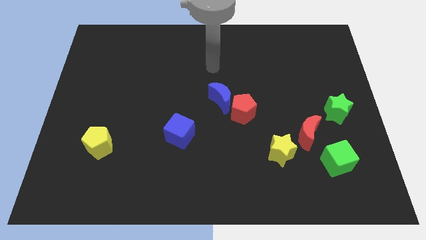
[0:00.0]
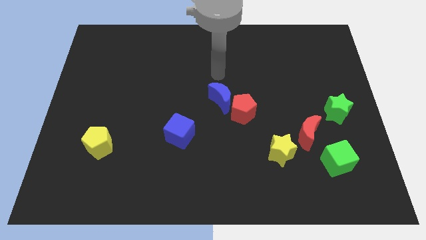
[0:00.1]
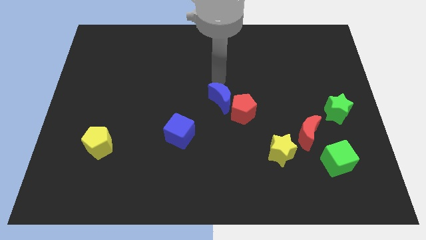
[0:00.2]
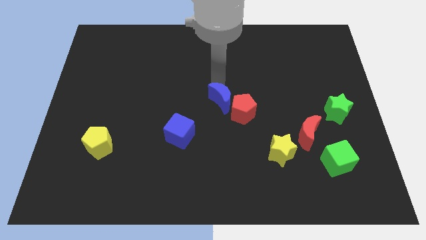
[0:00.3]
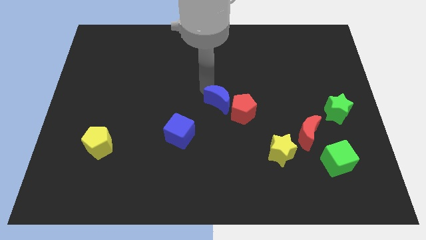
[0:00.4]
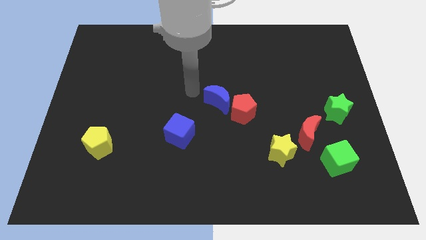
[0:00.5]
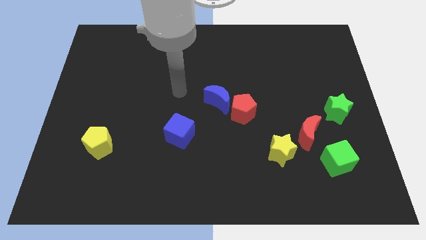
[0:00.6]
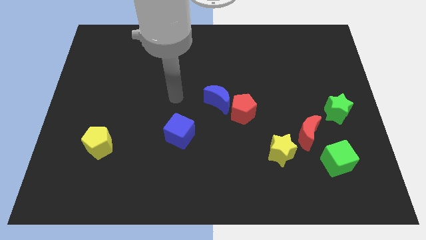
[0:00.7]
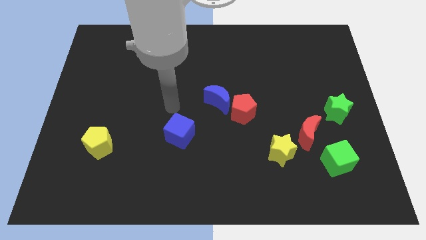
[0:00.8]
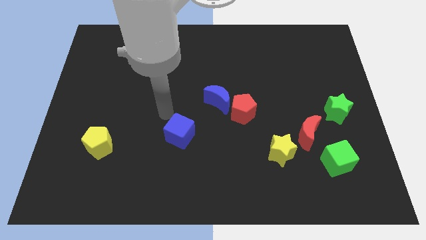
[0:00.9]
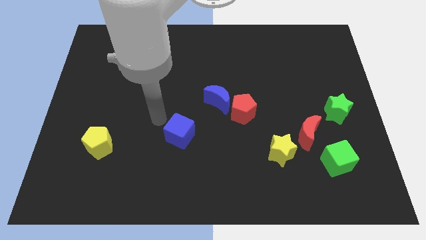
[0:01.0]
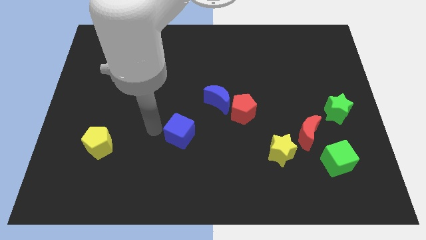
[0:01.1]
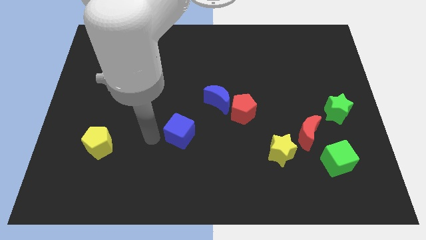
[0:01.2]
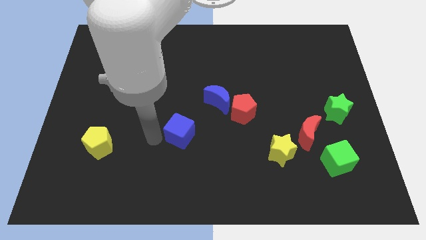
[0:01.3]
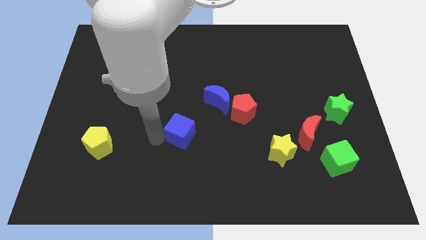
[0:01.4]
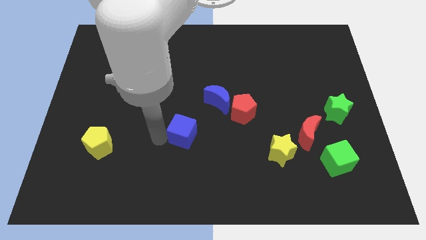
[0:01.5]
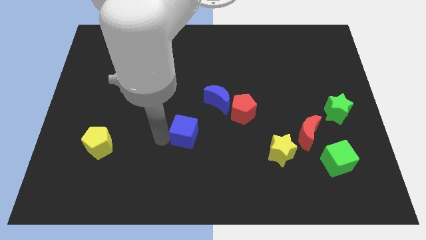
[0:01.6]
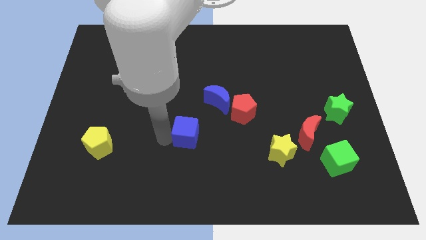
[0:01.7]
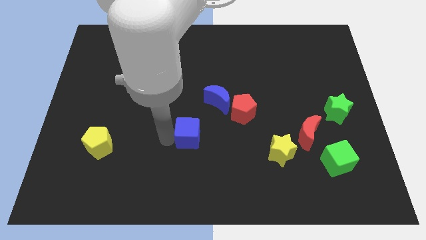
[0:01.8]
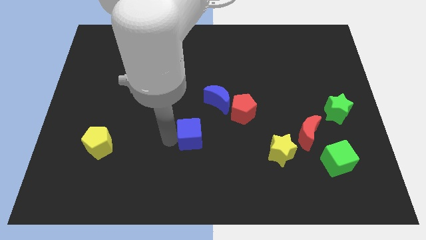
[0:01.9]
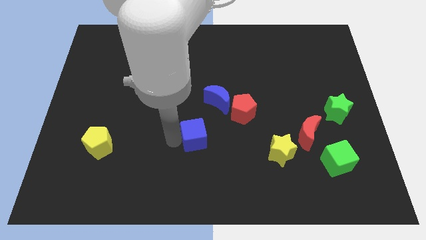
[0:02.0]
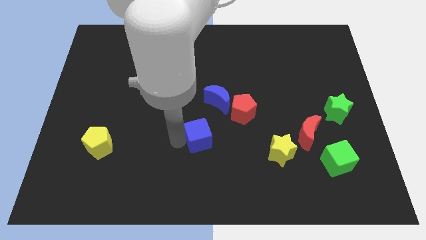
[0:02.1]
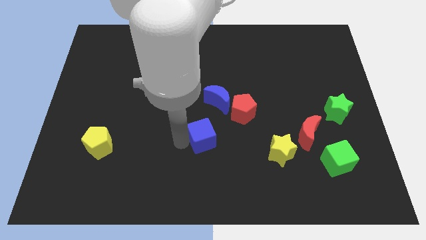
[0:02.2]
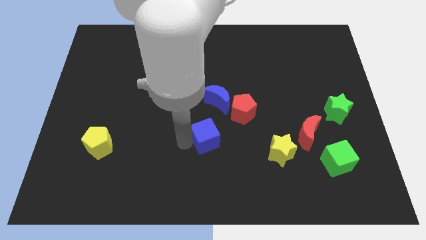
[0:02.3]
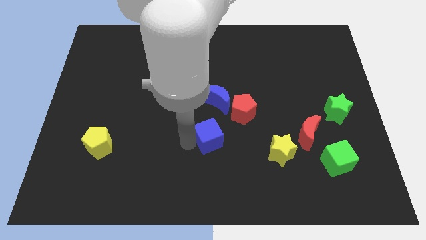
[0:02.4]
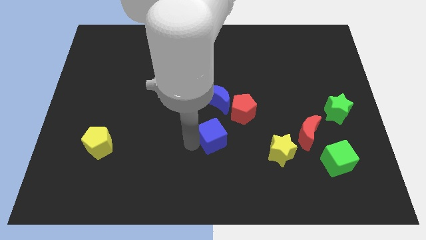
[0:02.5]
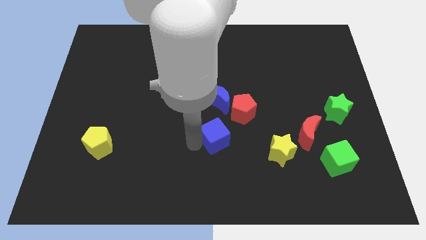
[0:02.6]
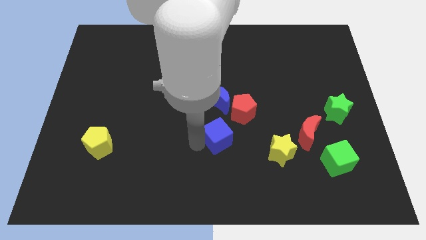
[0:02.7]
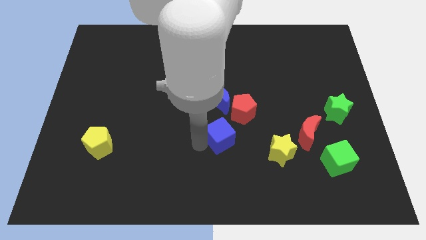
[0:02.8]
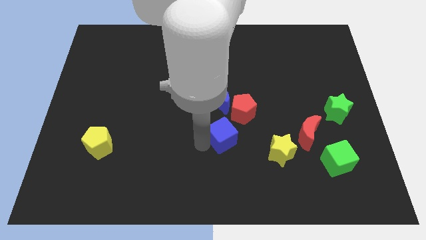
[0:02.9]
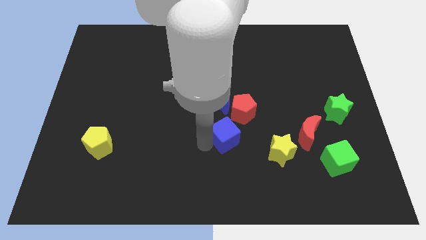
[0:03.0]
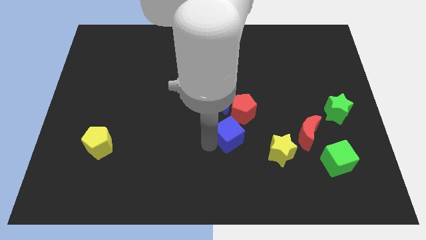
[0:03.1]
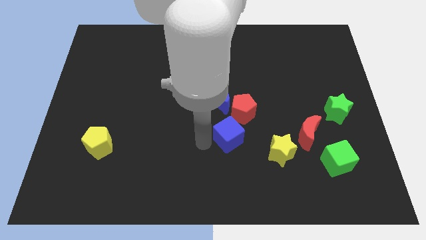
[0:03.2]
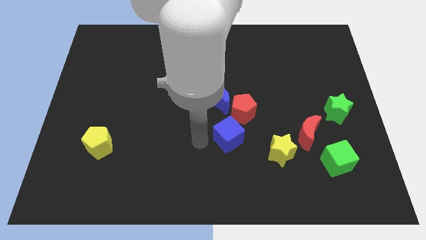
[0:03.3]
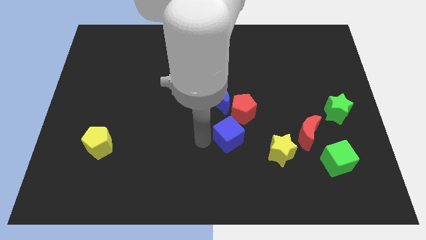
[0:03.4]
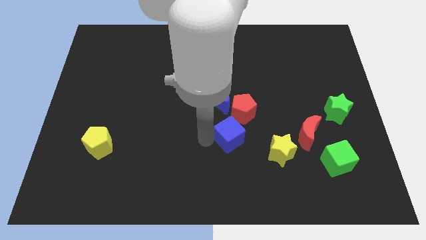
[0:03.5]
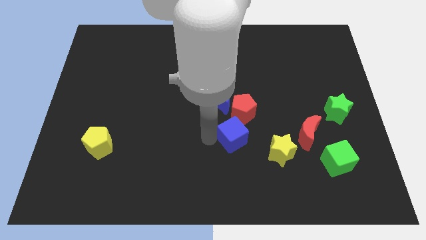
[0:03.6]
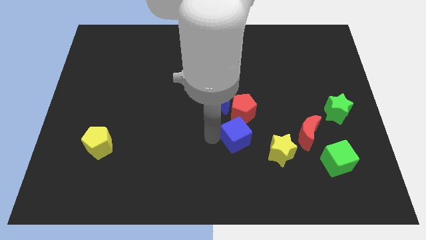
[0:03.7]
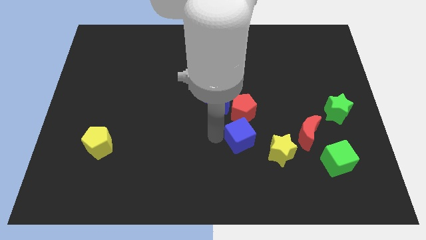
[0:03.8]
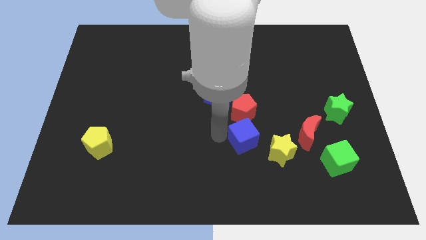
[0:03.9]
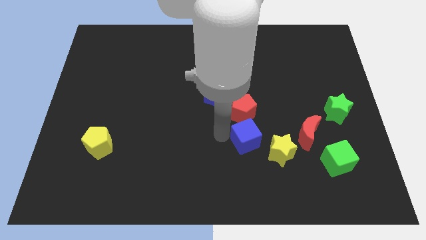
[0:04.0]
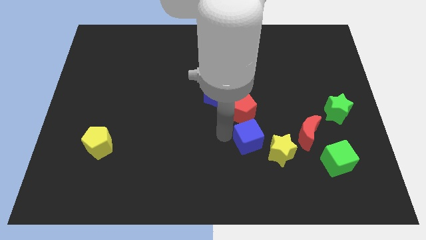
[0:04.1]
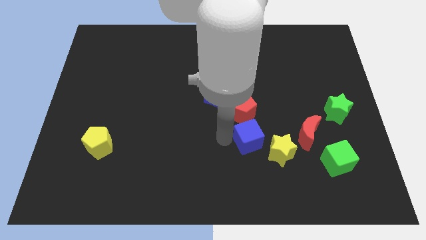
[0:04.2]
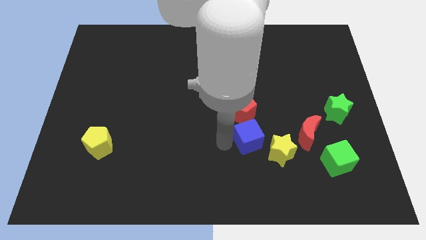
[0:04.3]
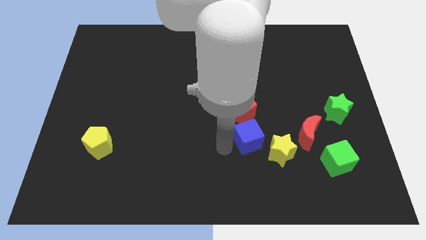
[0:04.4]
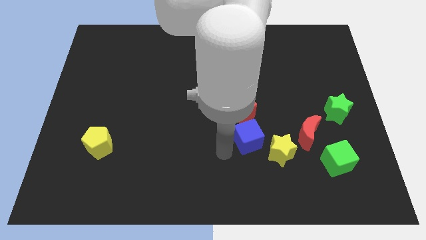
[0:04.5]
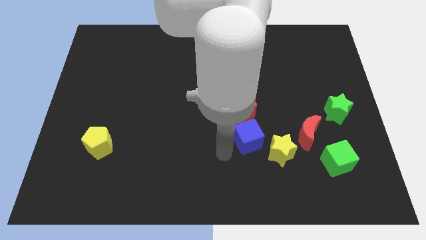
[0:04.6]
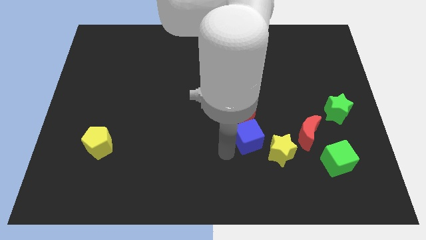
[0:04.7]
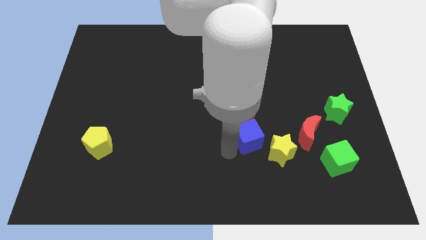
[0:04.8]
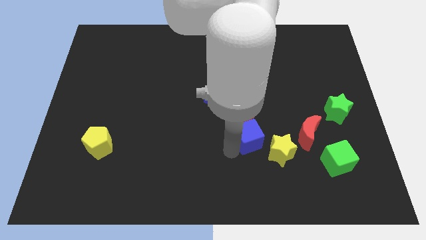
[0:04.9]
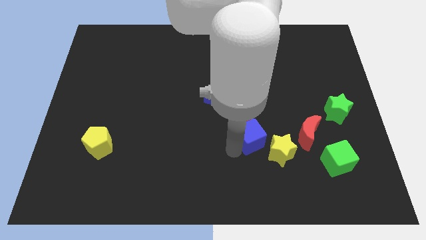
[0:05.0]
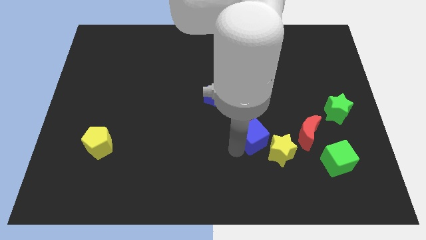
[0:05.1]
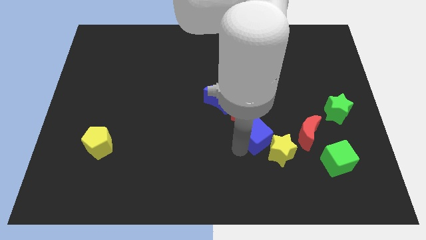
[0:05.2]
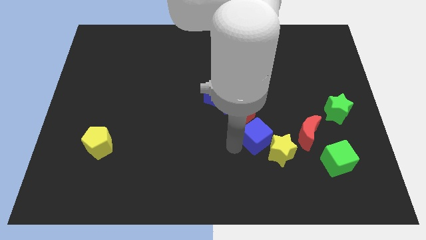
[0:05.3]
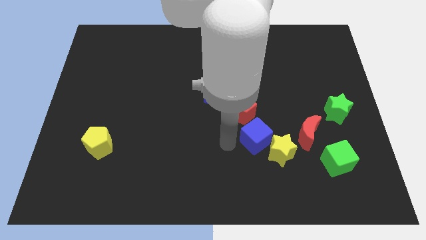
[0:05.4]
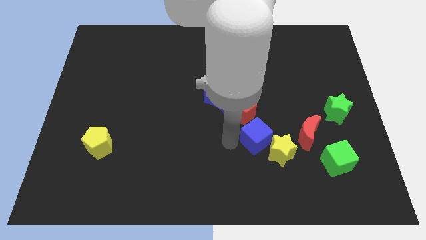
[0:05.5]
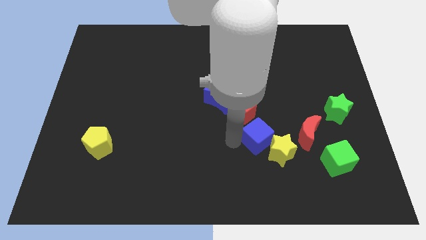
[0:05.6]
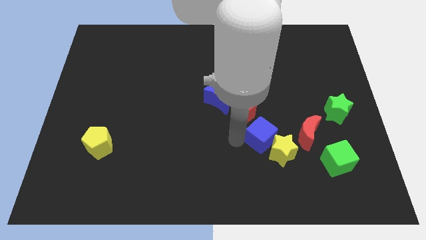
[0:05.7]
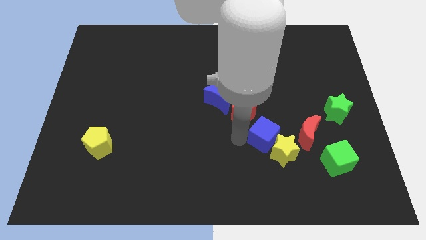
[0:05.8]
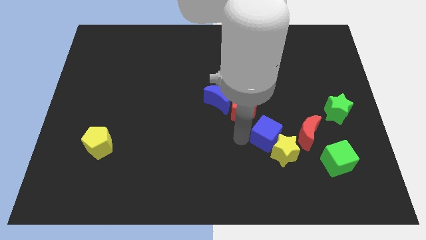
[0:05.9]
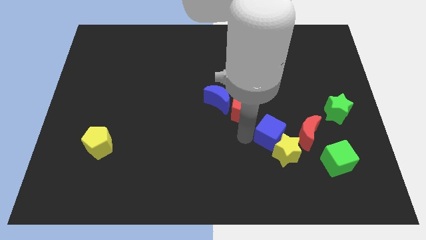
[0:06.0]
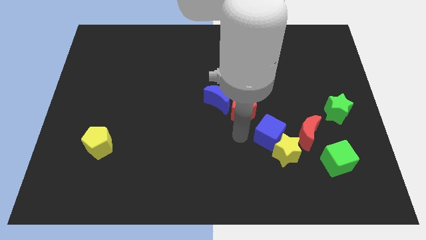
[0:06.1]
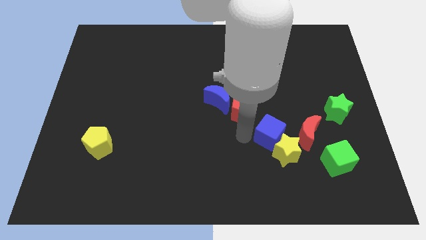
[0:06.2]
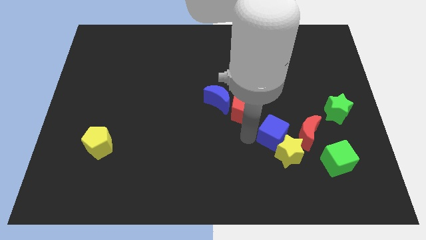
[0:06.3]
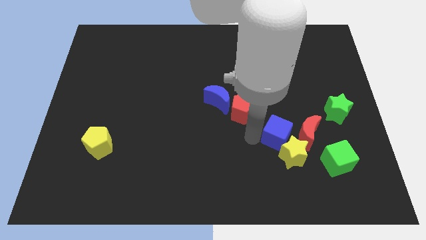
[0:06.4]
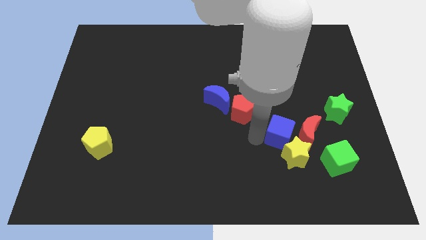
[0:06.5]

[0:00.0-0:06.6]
slide the blue cube close to the red moon
